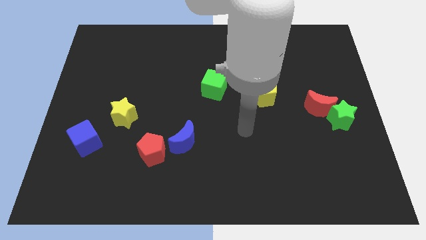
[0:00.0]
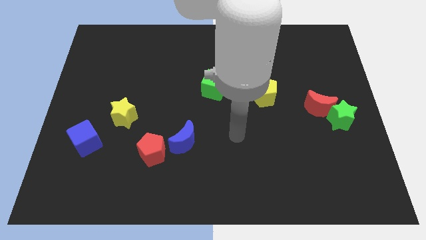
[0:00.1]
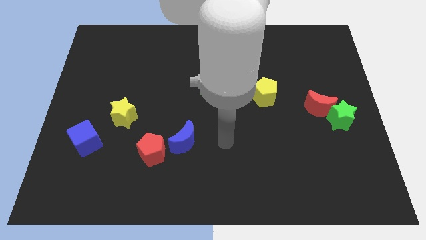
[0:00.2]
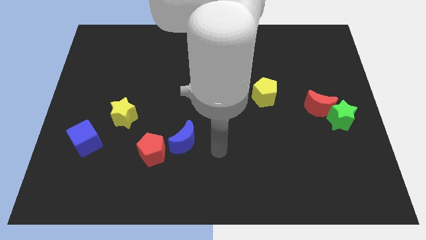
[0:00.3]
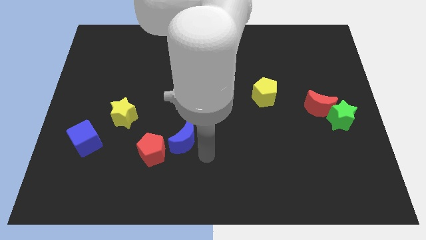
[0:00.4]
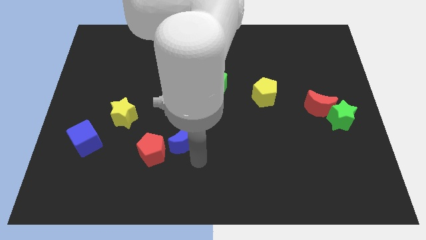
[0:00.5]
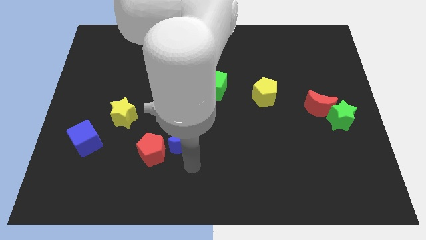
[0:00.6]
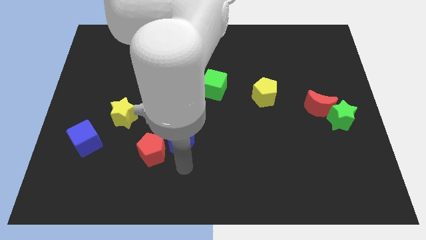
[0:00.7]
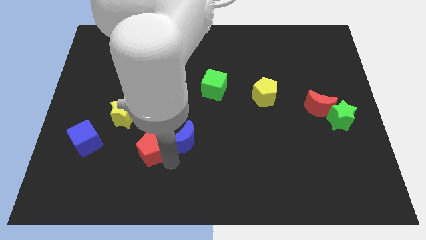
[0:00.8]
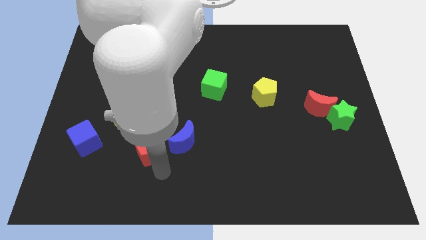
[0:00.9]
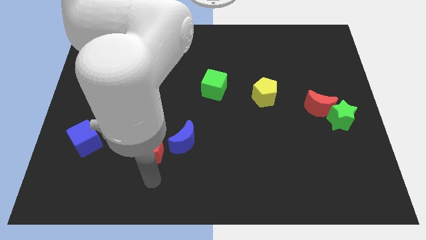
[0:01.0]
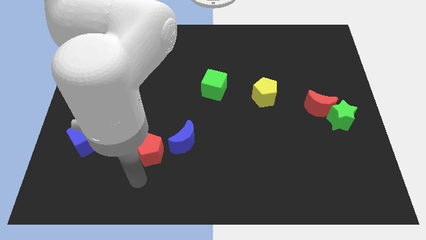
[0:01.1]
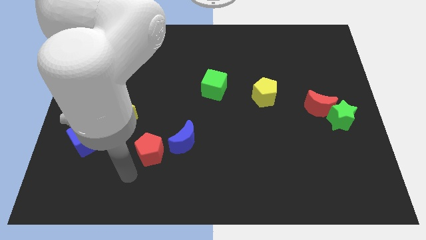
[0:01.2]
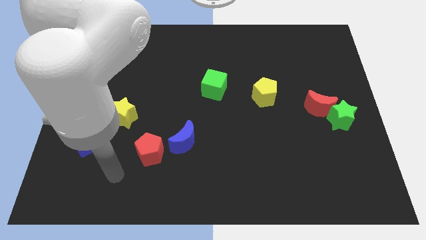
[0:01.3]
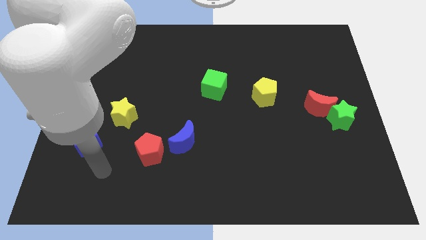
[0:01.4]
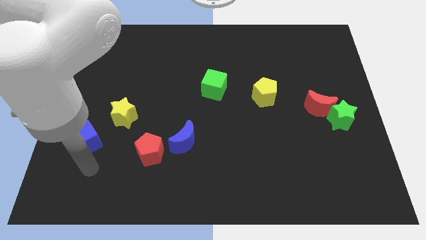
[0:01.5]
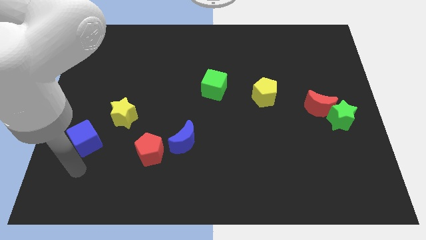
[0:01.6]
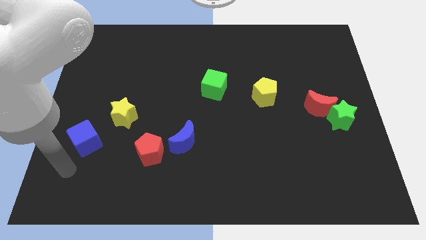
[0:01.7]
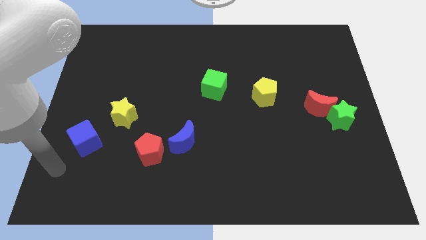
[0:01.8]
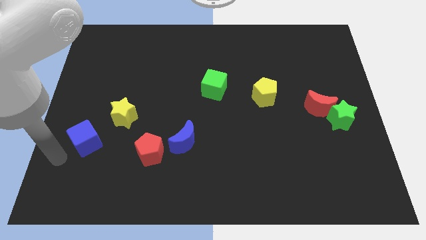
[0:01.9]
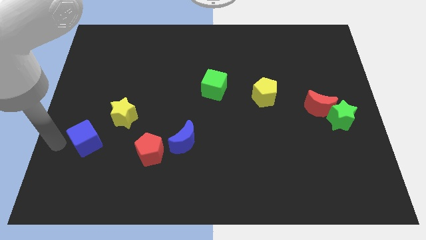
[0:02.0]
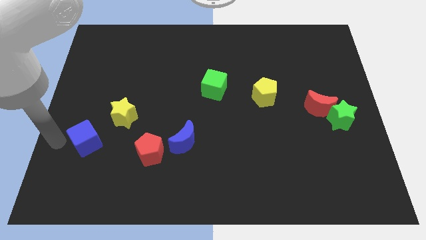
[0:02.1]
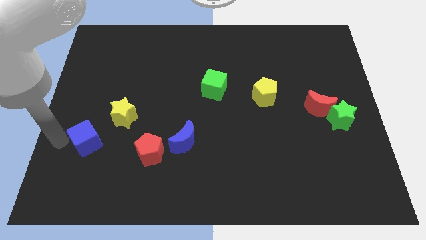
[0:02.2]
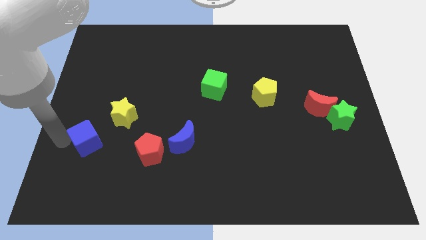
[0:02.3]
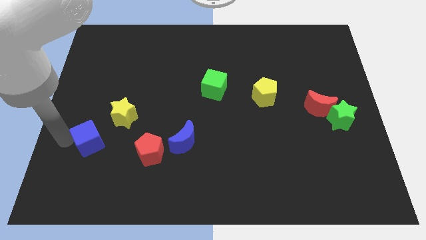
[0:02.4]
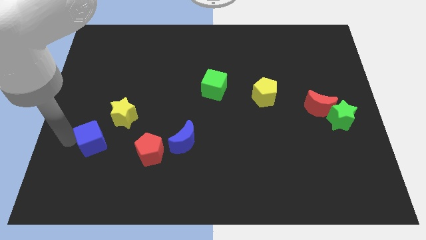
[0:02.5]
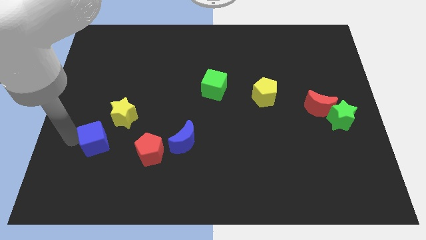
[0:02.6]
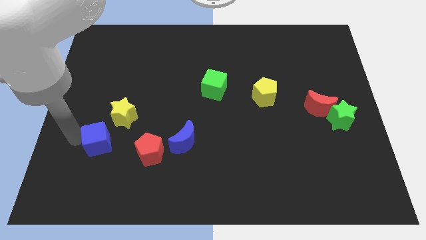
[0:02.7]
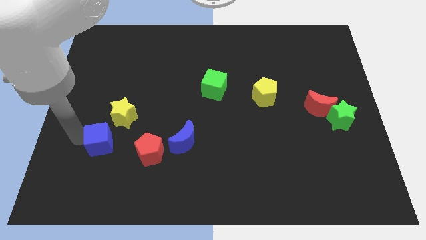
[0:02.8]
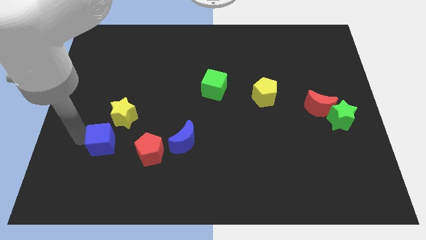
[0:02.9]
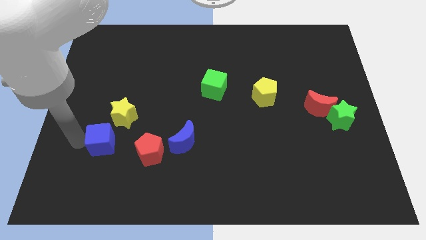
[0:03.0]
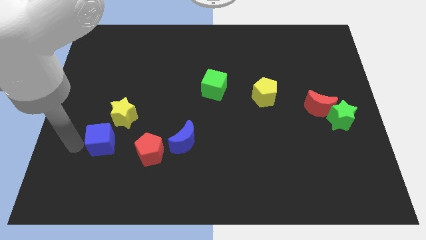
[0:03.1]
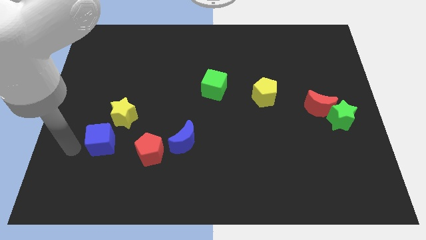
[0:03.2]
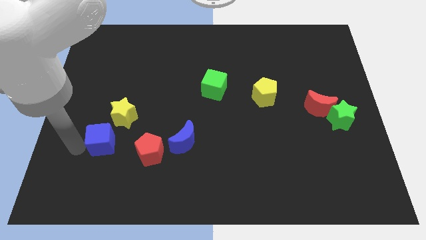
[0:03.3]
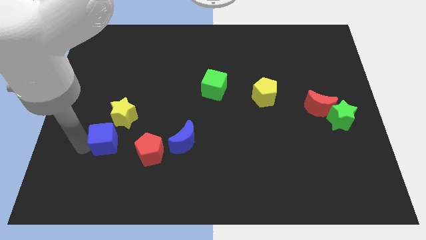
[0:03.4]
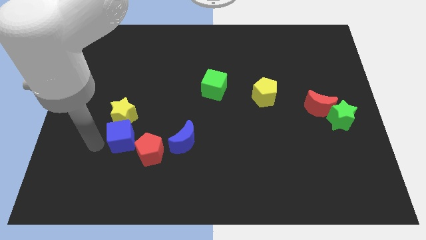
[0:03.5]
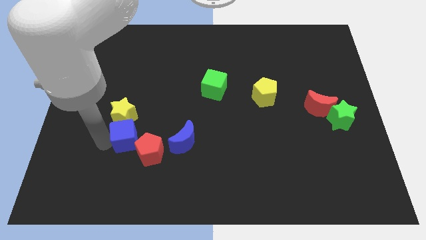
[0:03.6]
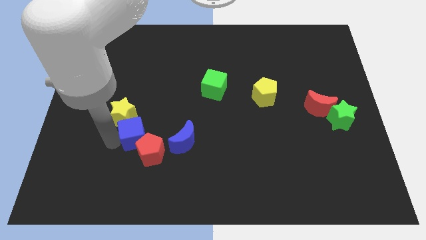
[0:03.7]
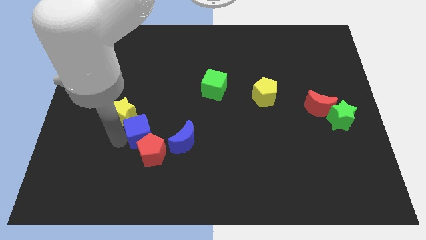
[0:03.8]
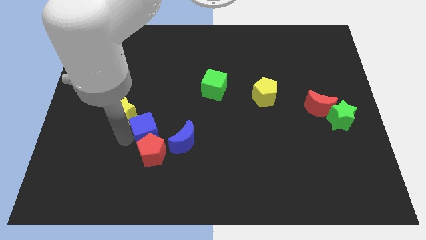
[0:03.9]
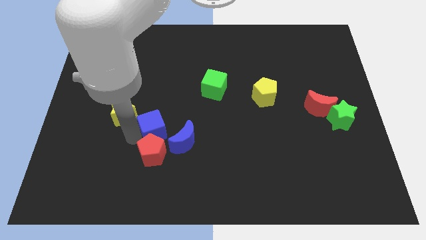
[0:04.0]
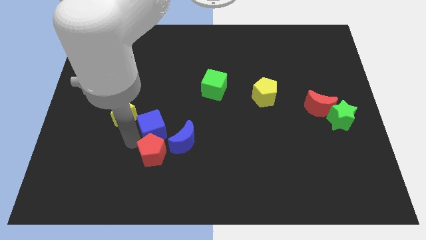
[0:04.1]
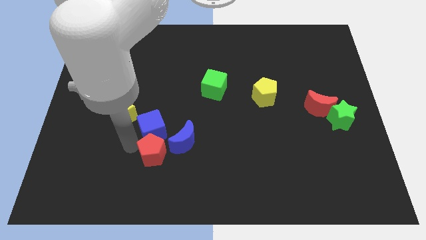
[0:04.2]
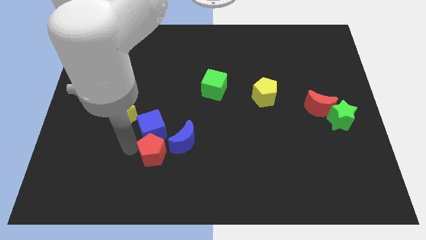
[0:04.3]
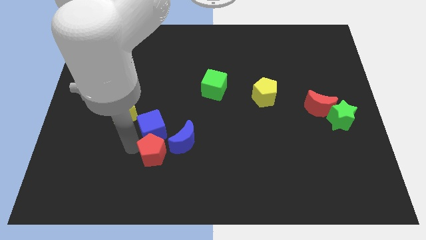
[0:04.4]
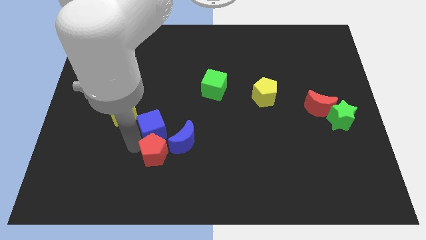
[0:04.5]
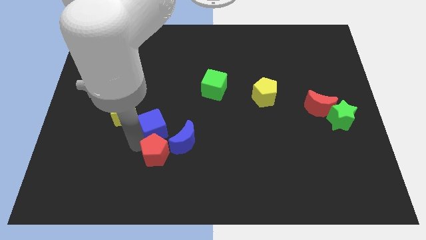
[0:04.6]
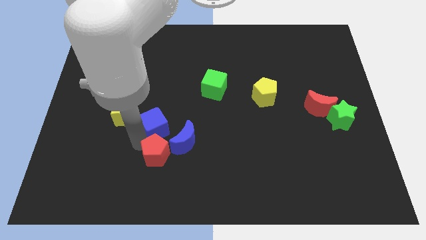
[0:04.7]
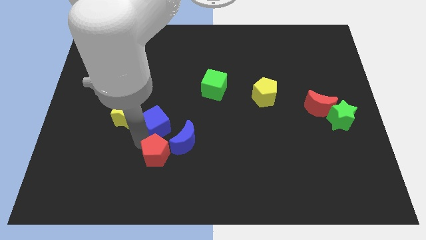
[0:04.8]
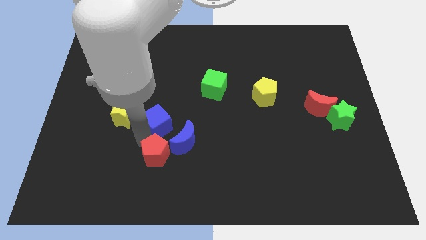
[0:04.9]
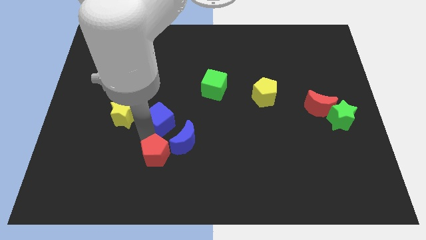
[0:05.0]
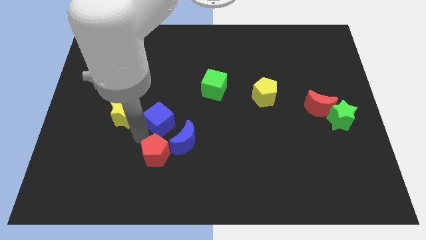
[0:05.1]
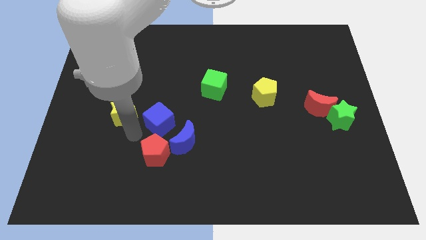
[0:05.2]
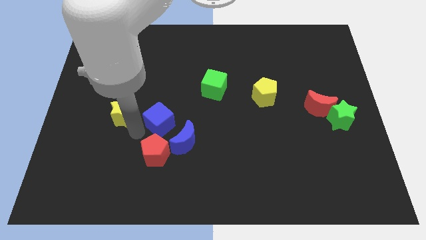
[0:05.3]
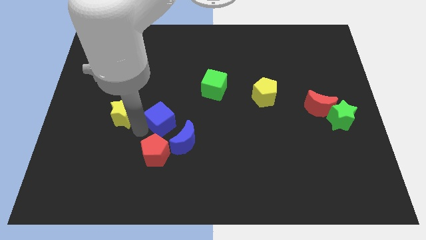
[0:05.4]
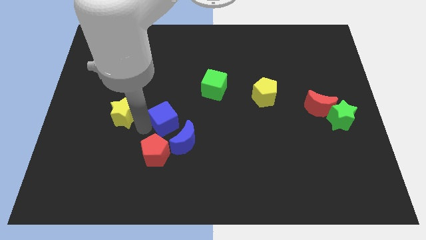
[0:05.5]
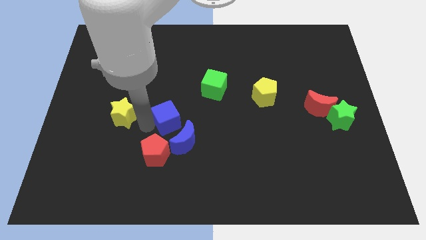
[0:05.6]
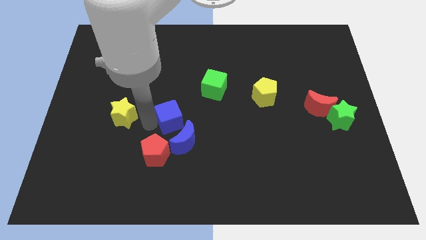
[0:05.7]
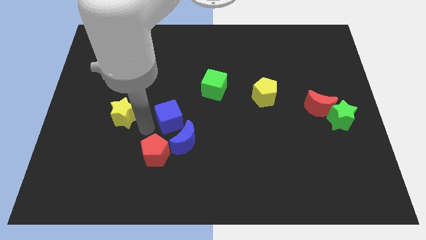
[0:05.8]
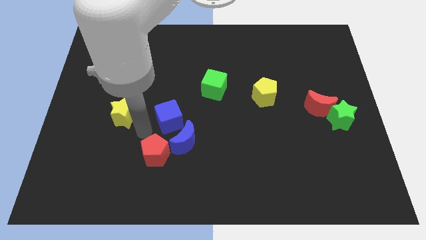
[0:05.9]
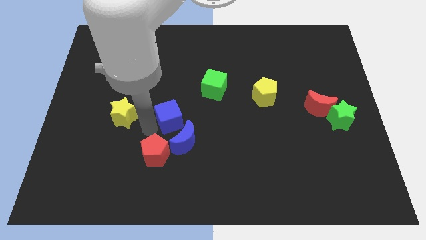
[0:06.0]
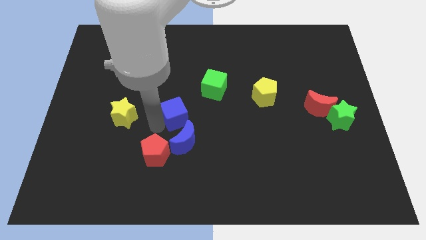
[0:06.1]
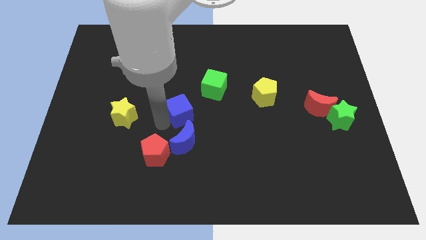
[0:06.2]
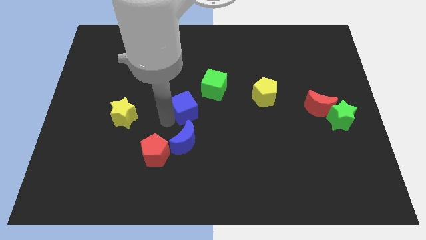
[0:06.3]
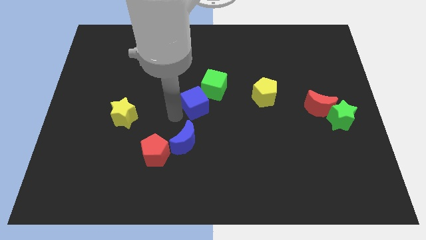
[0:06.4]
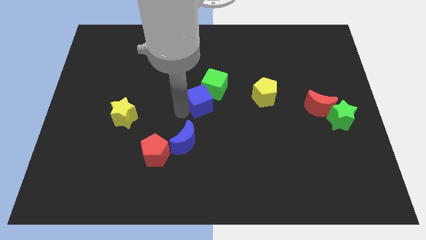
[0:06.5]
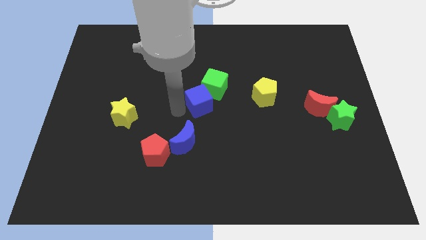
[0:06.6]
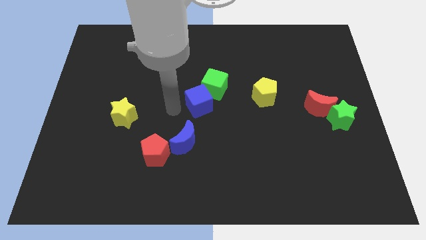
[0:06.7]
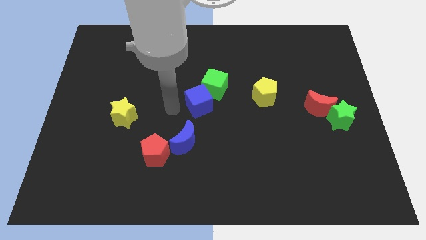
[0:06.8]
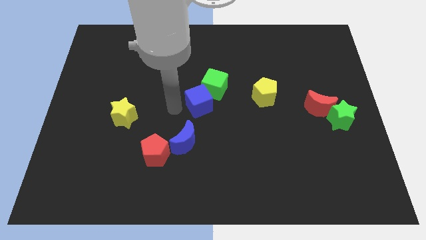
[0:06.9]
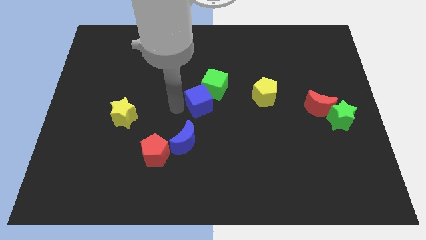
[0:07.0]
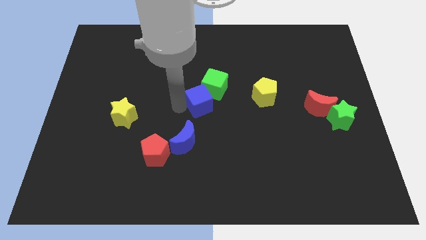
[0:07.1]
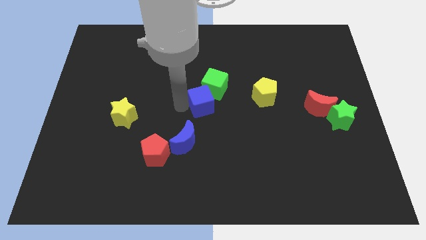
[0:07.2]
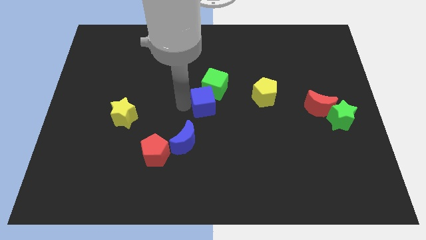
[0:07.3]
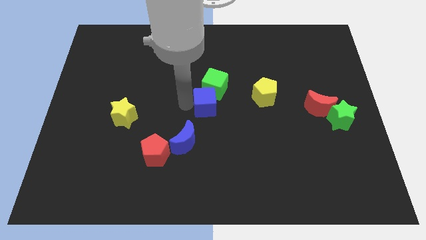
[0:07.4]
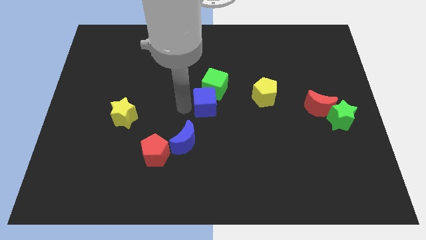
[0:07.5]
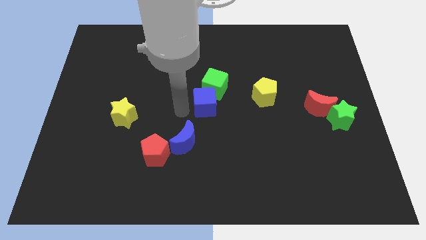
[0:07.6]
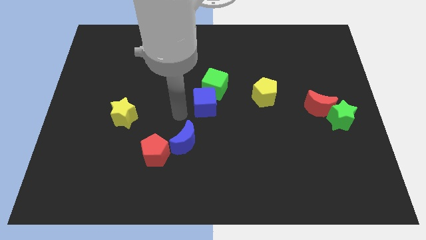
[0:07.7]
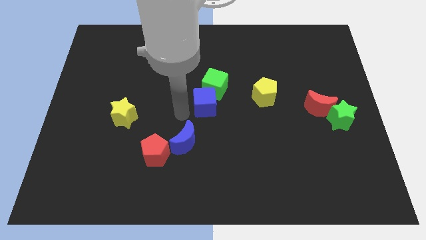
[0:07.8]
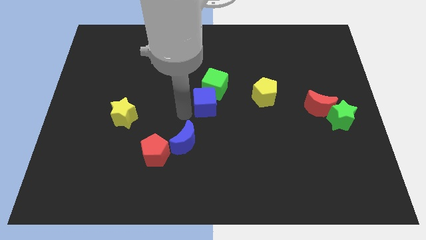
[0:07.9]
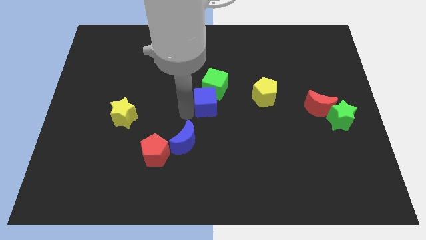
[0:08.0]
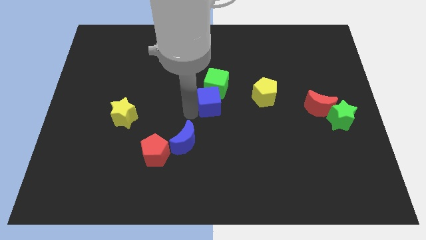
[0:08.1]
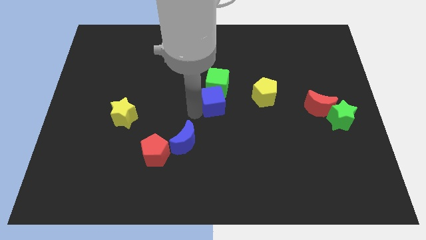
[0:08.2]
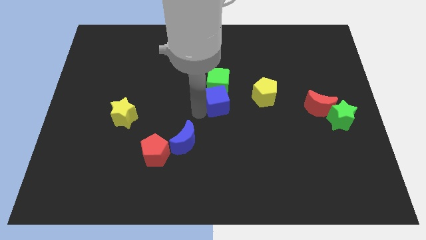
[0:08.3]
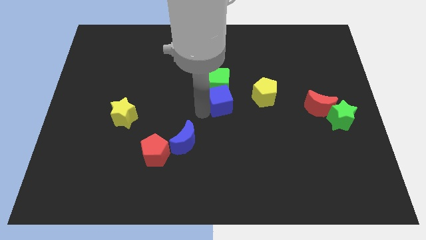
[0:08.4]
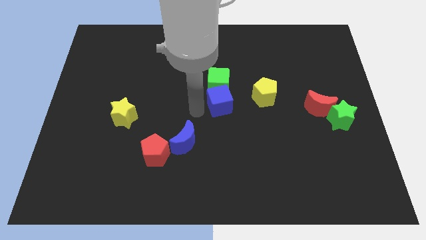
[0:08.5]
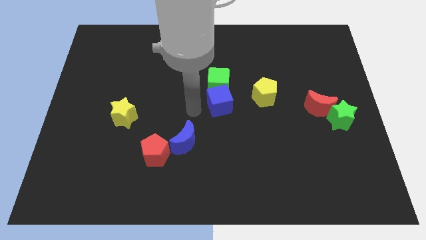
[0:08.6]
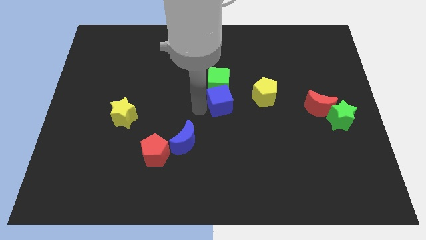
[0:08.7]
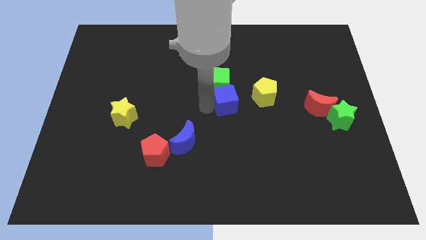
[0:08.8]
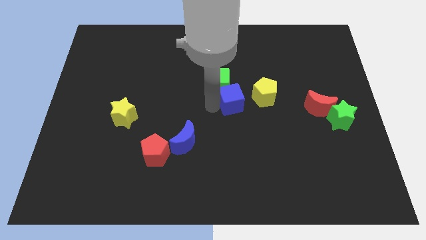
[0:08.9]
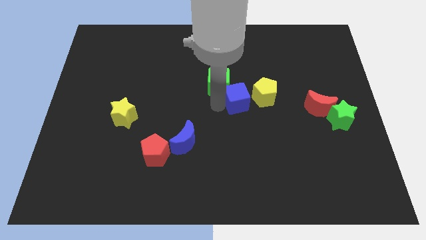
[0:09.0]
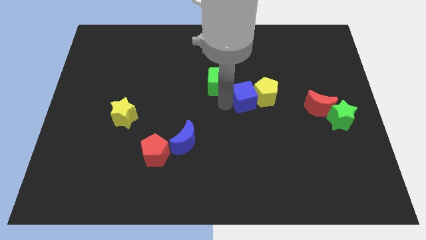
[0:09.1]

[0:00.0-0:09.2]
move the blue cube to the yellow pentagon
